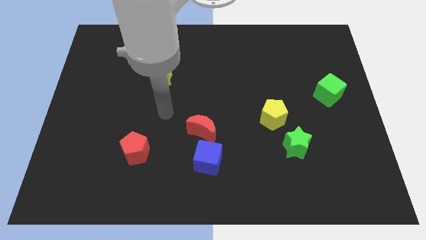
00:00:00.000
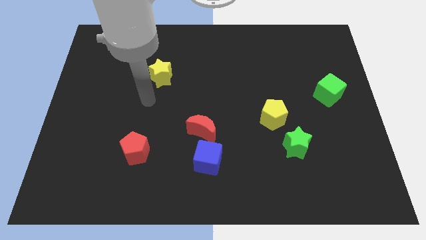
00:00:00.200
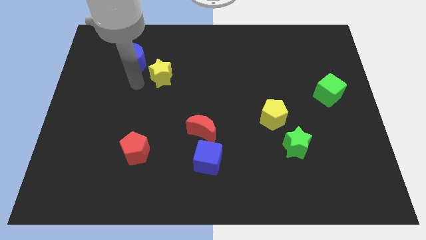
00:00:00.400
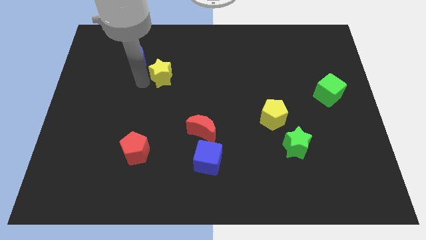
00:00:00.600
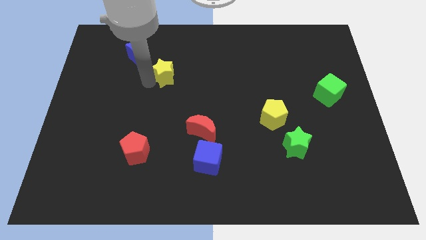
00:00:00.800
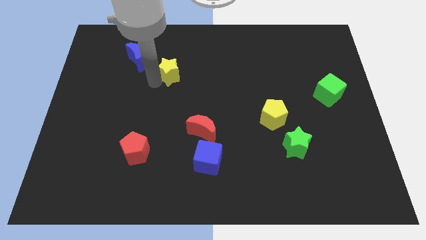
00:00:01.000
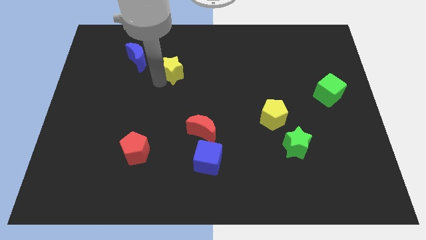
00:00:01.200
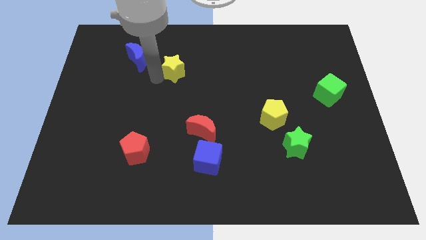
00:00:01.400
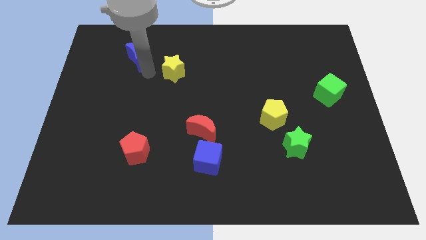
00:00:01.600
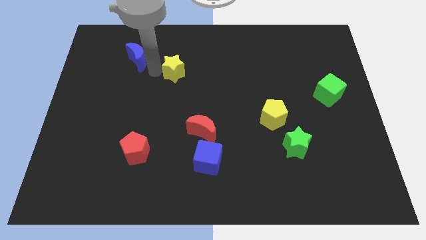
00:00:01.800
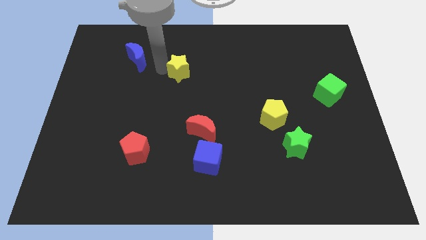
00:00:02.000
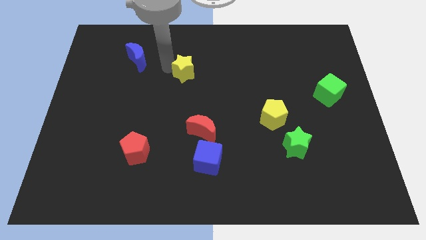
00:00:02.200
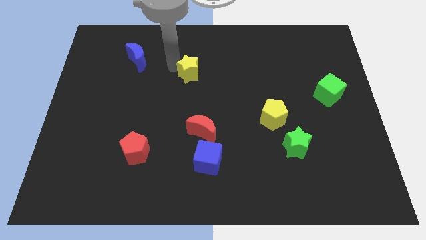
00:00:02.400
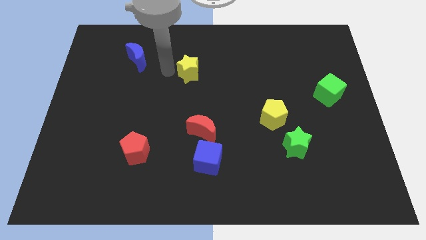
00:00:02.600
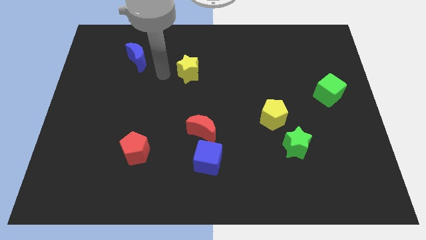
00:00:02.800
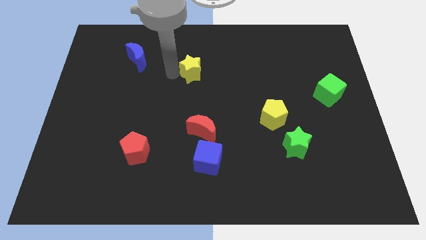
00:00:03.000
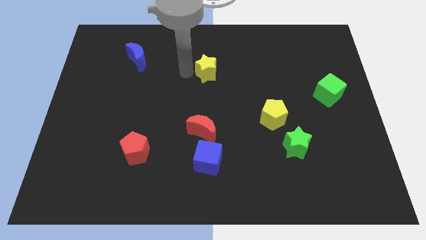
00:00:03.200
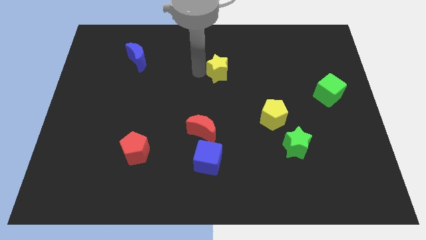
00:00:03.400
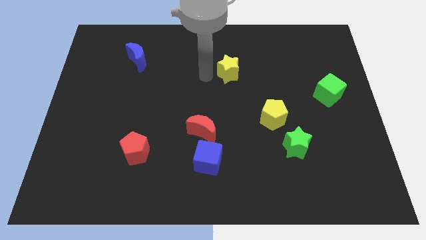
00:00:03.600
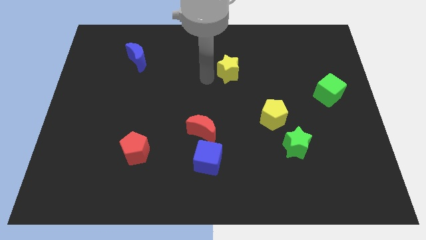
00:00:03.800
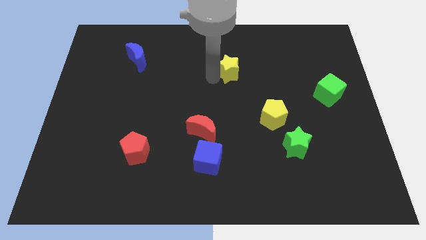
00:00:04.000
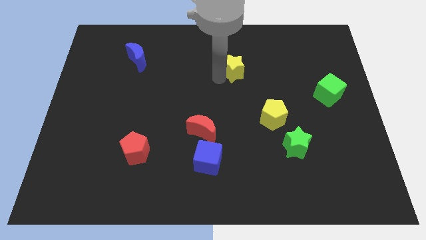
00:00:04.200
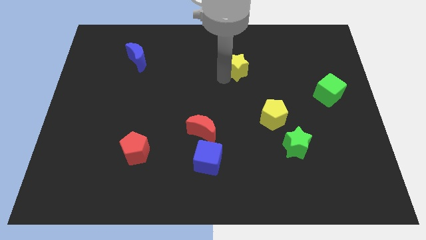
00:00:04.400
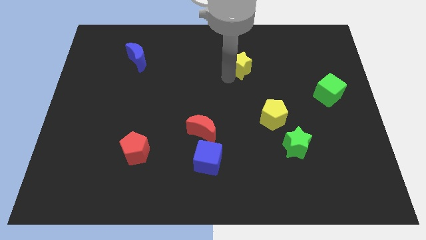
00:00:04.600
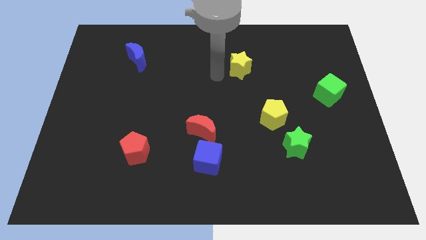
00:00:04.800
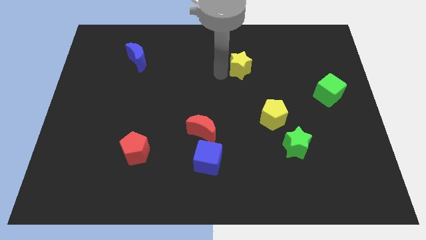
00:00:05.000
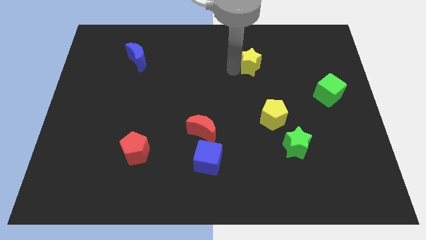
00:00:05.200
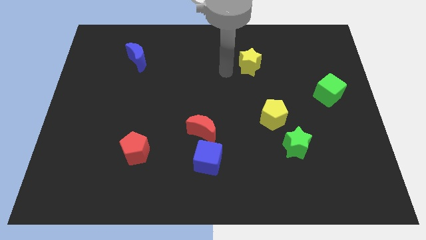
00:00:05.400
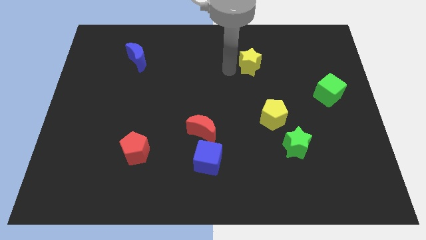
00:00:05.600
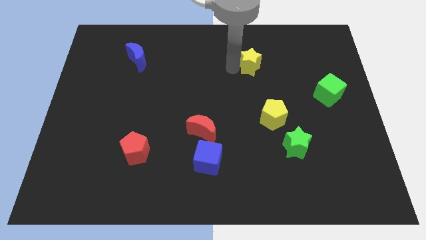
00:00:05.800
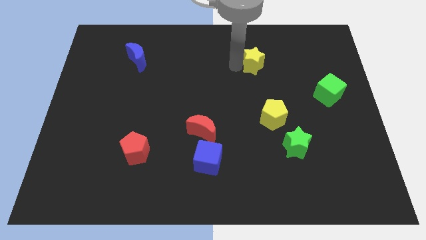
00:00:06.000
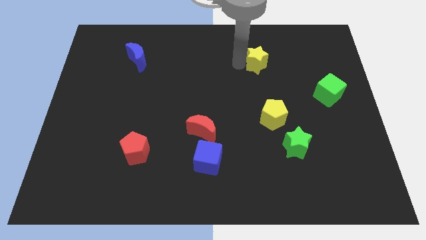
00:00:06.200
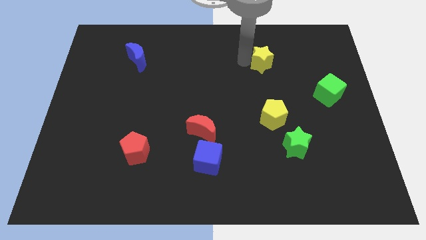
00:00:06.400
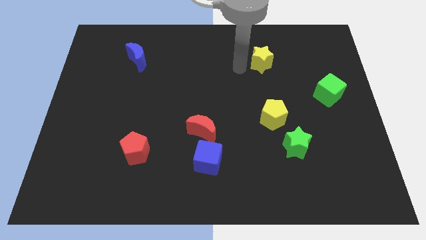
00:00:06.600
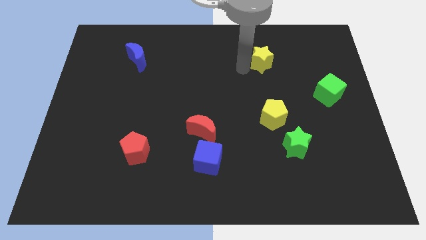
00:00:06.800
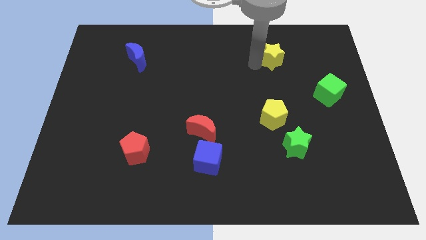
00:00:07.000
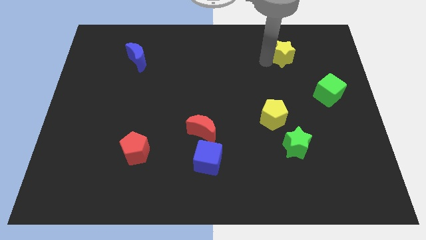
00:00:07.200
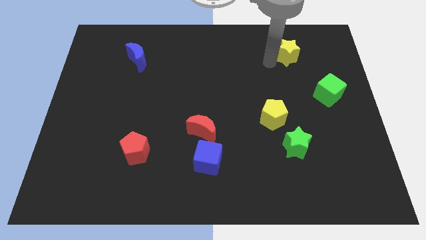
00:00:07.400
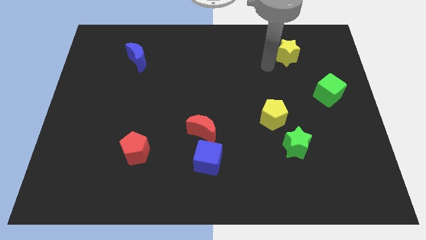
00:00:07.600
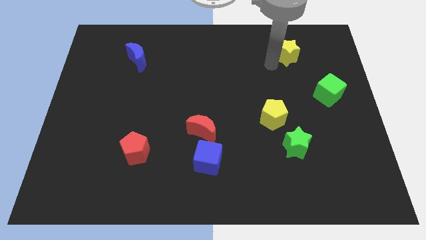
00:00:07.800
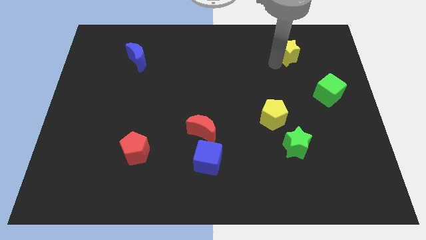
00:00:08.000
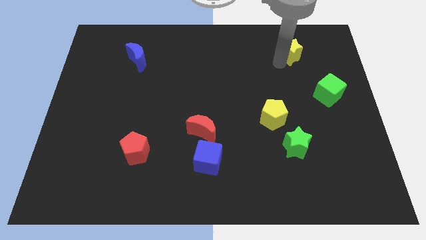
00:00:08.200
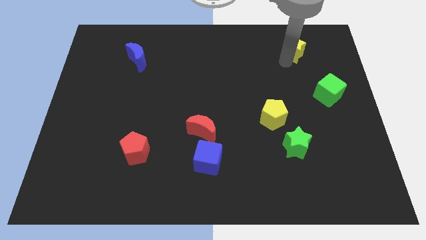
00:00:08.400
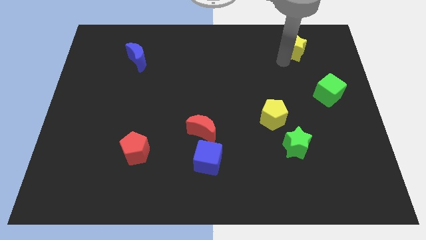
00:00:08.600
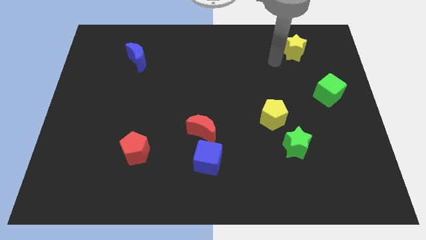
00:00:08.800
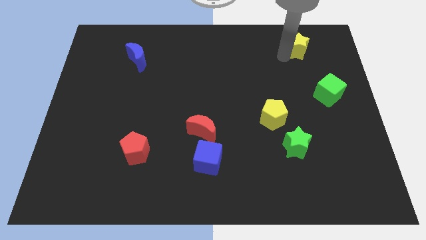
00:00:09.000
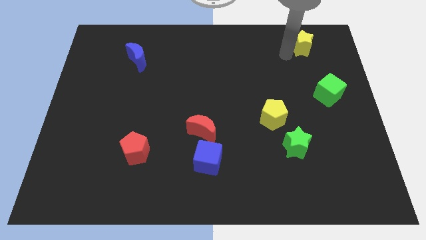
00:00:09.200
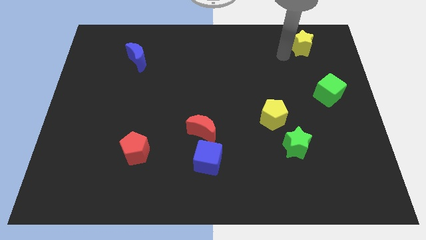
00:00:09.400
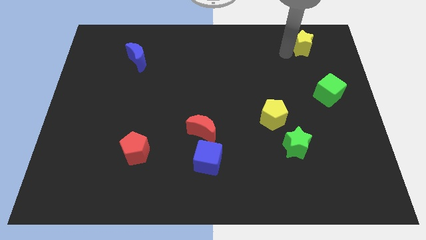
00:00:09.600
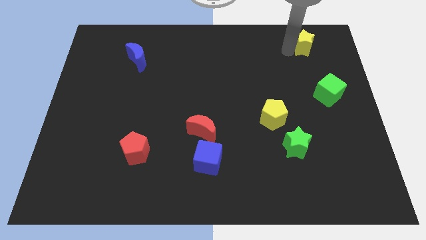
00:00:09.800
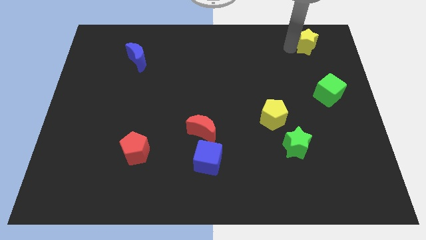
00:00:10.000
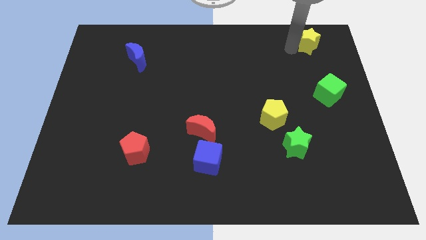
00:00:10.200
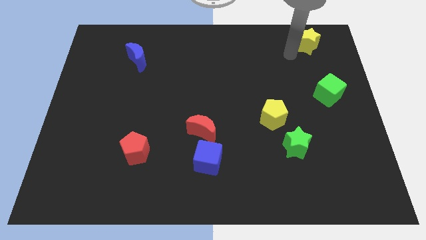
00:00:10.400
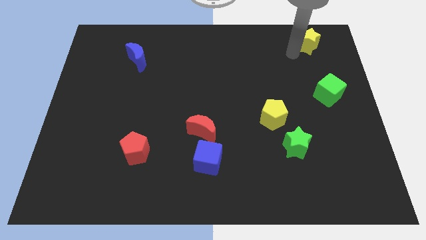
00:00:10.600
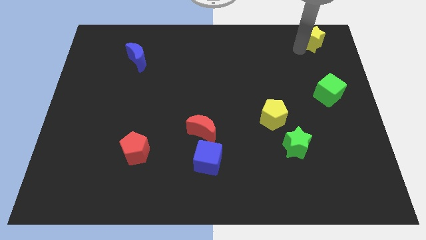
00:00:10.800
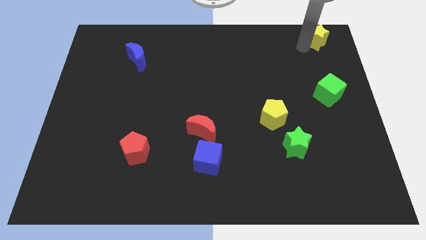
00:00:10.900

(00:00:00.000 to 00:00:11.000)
push the yellow star to the top right corner

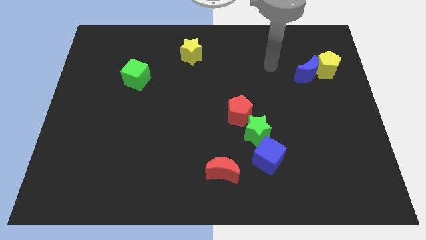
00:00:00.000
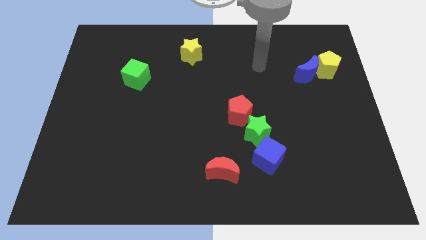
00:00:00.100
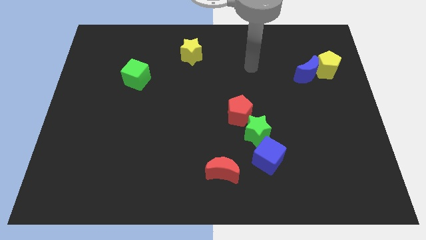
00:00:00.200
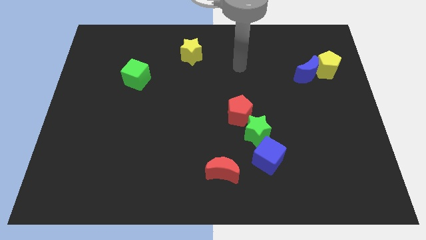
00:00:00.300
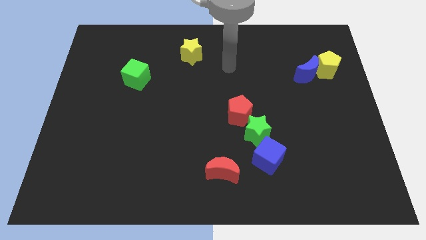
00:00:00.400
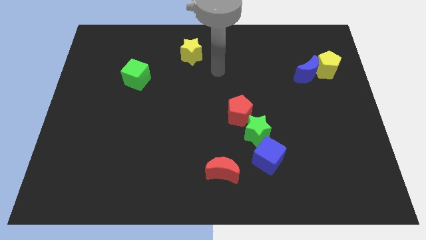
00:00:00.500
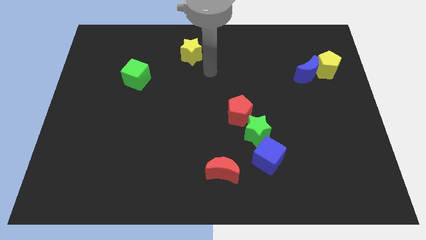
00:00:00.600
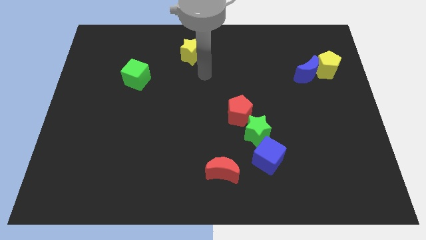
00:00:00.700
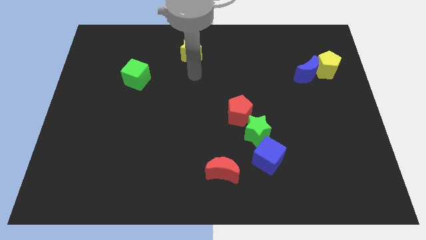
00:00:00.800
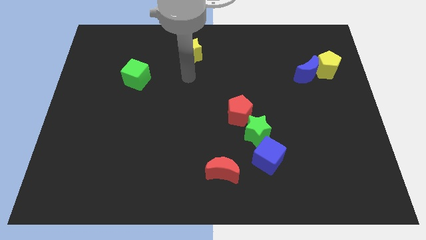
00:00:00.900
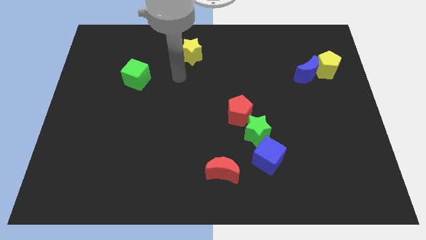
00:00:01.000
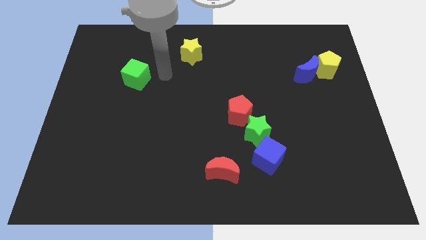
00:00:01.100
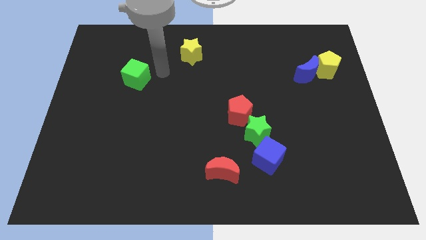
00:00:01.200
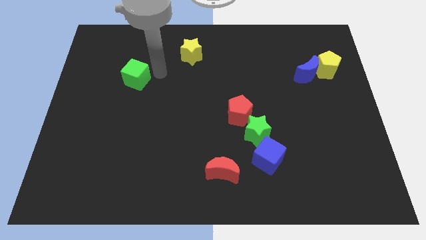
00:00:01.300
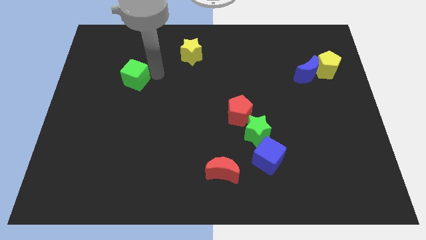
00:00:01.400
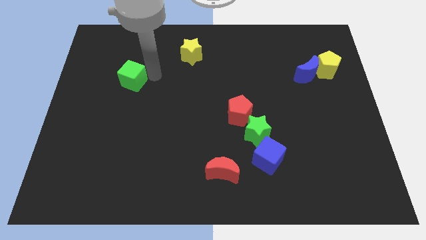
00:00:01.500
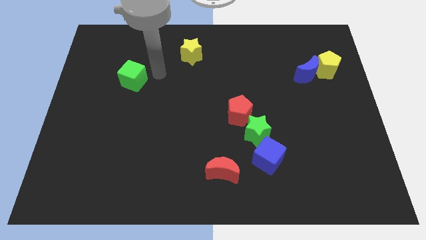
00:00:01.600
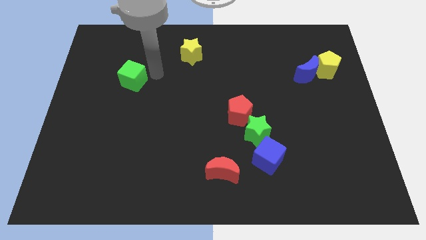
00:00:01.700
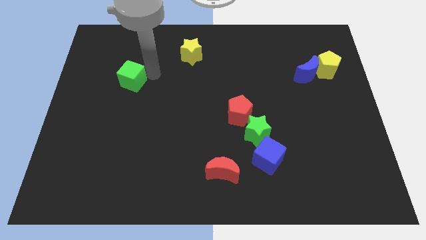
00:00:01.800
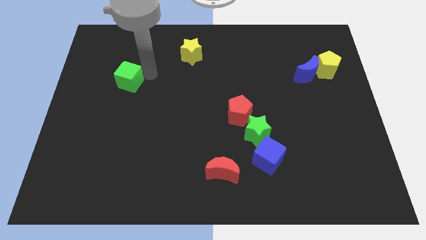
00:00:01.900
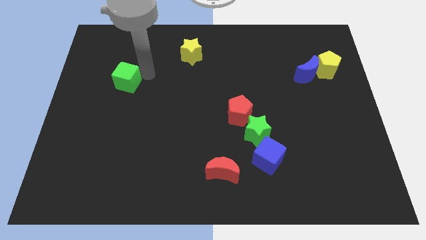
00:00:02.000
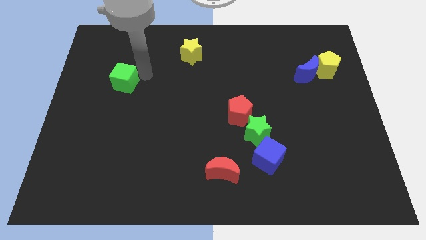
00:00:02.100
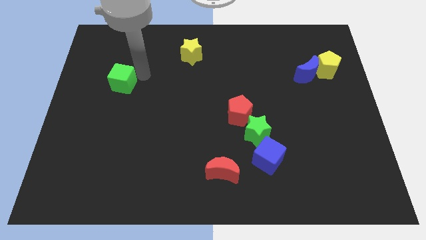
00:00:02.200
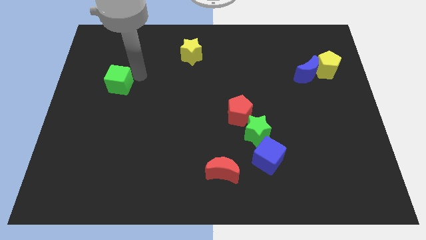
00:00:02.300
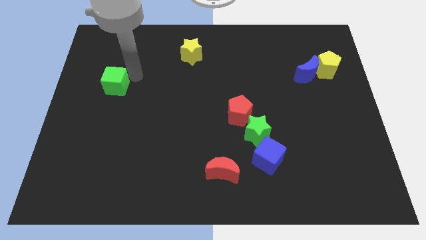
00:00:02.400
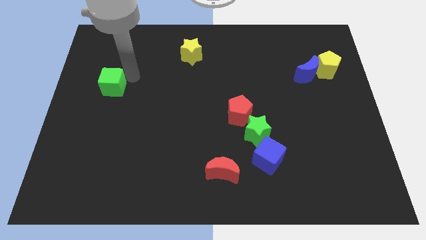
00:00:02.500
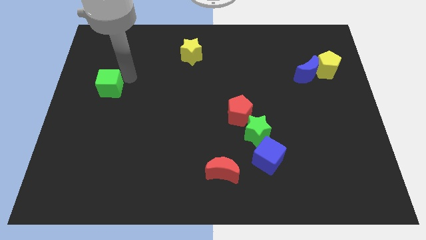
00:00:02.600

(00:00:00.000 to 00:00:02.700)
push the green cube to the center left
